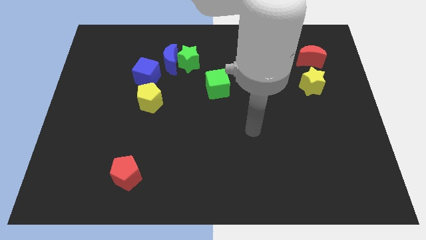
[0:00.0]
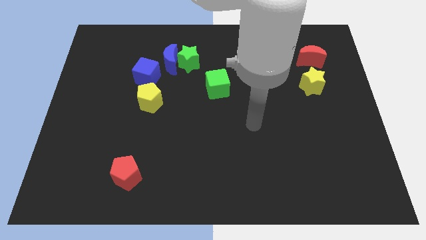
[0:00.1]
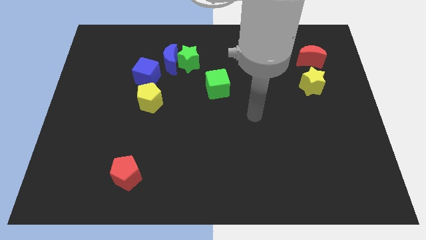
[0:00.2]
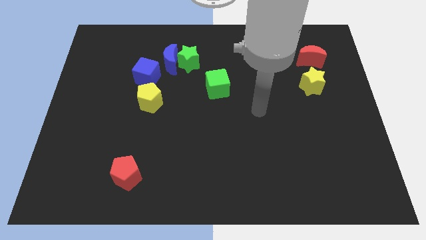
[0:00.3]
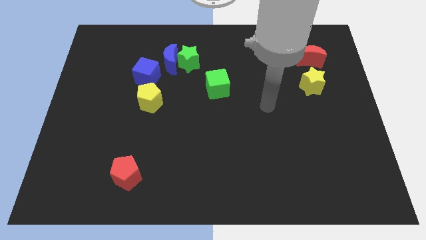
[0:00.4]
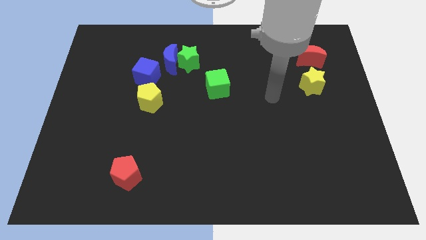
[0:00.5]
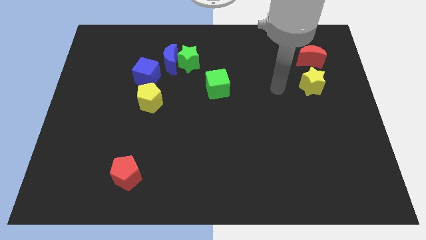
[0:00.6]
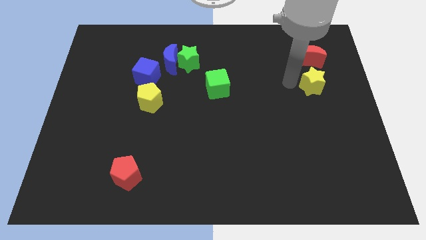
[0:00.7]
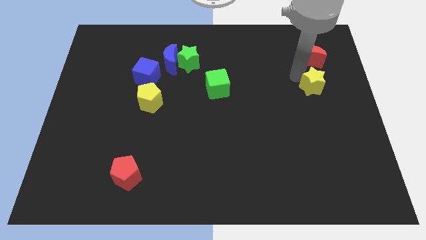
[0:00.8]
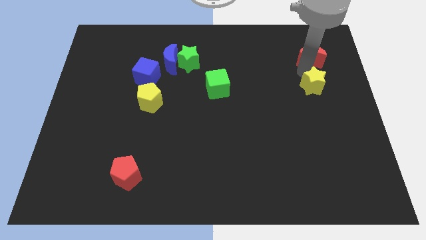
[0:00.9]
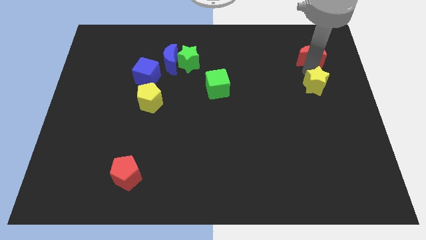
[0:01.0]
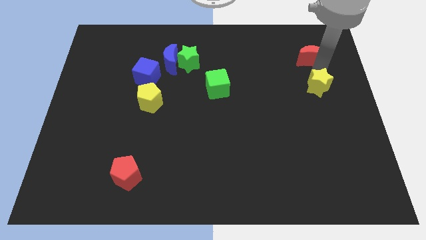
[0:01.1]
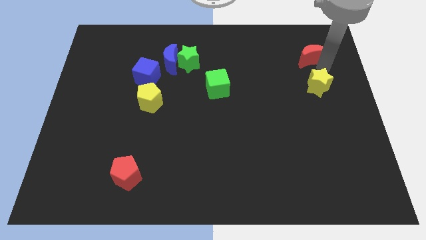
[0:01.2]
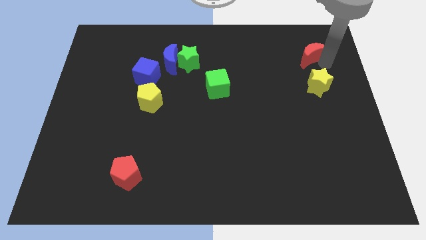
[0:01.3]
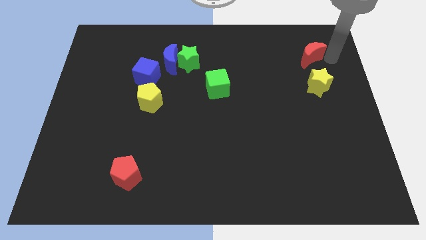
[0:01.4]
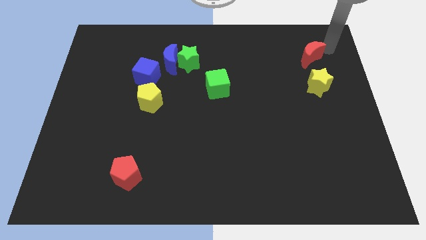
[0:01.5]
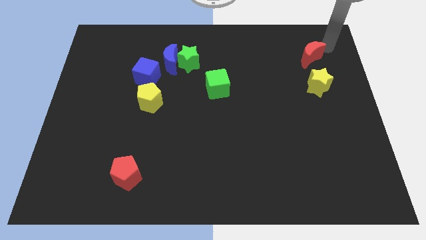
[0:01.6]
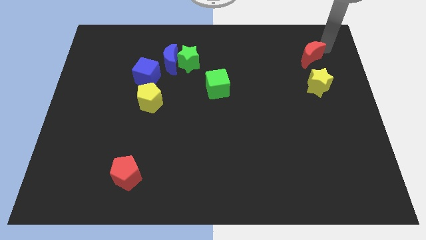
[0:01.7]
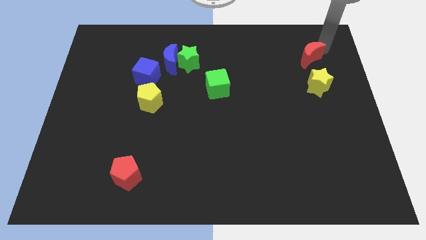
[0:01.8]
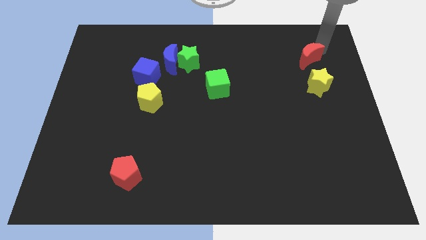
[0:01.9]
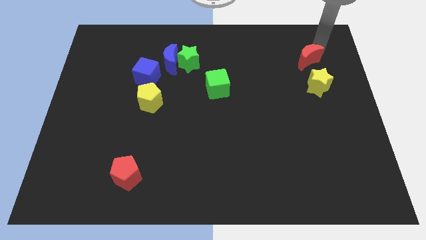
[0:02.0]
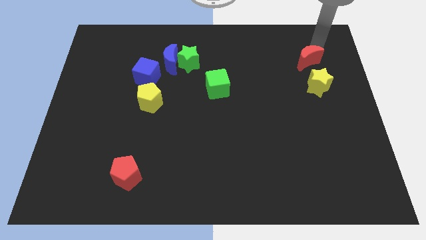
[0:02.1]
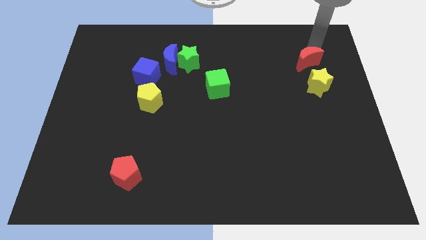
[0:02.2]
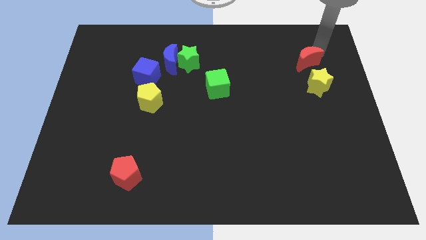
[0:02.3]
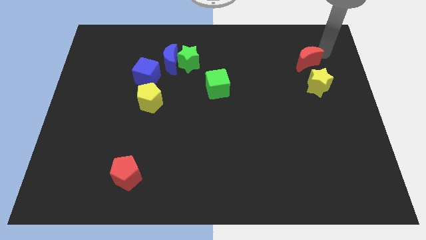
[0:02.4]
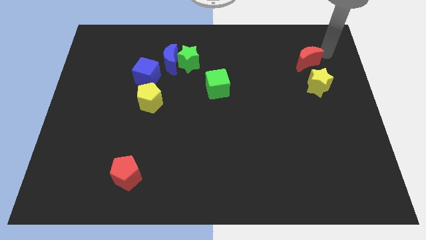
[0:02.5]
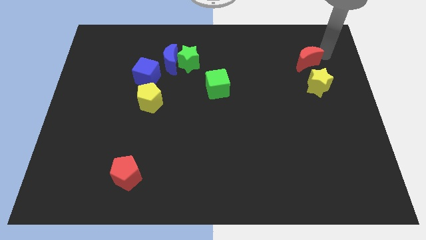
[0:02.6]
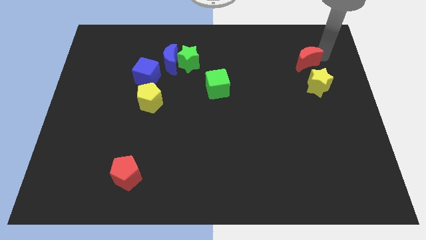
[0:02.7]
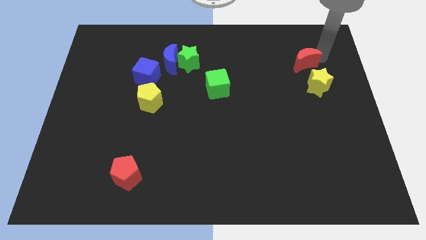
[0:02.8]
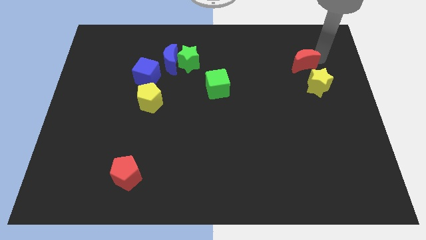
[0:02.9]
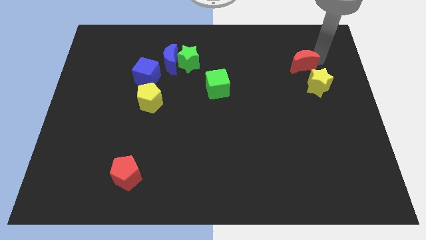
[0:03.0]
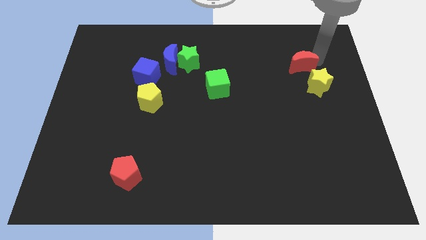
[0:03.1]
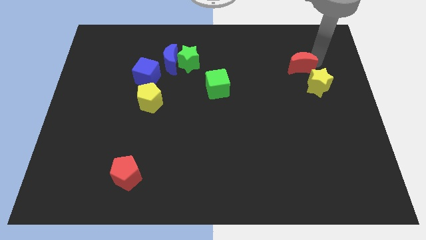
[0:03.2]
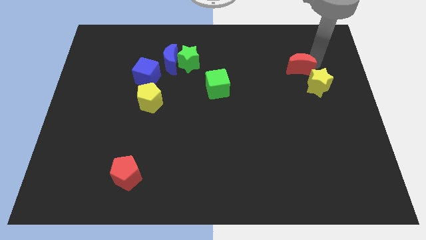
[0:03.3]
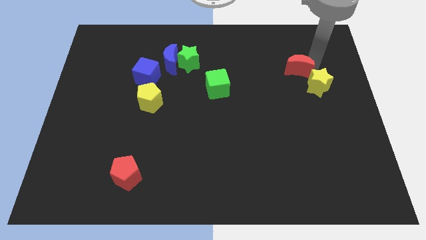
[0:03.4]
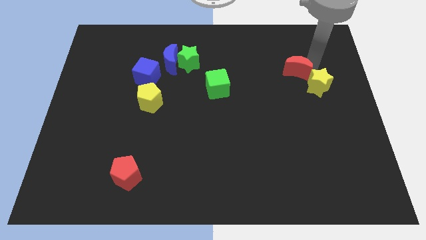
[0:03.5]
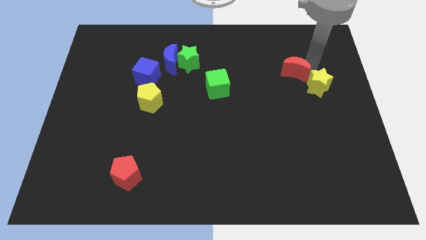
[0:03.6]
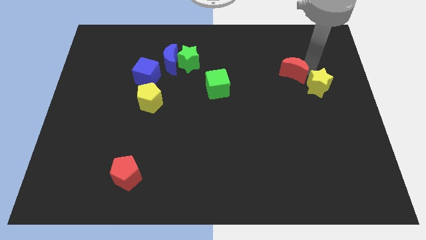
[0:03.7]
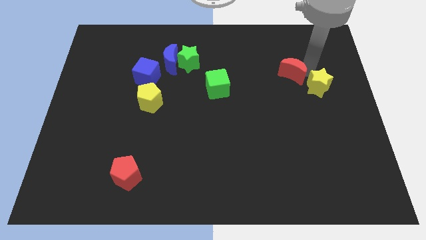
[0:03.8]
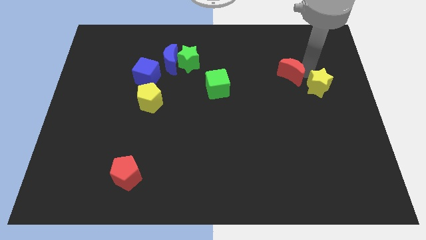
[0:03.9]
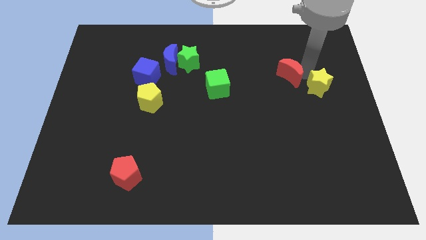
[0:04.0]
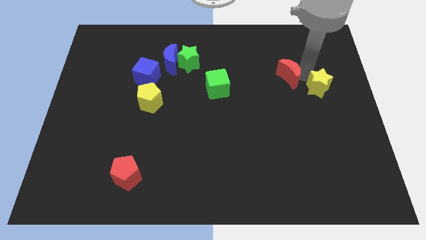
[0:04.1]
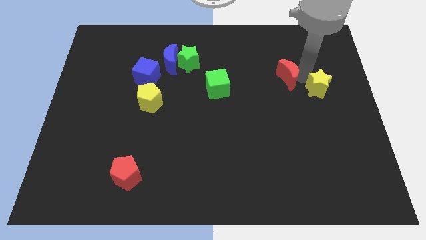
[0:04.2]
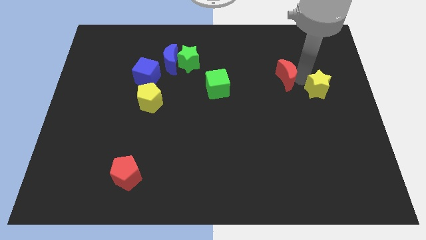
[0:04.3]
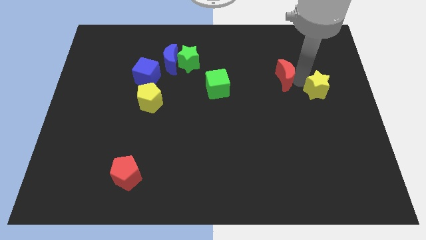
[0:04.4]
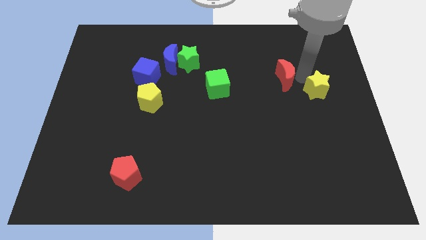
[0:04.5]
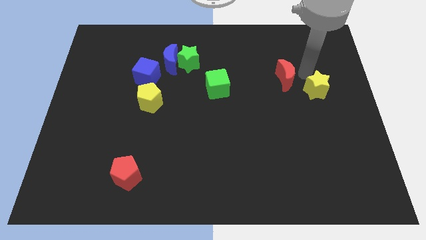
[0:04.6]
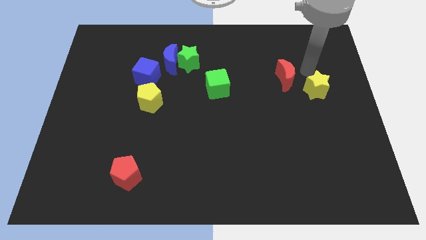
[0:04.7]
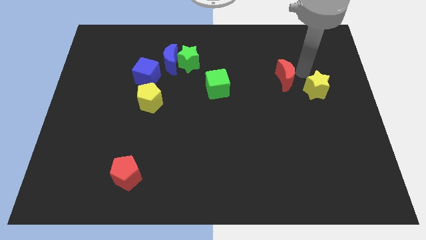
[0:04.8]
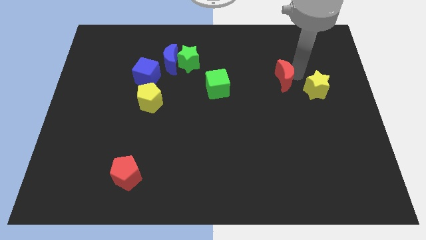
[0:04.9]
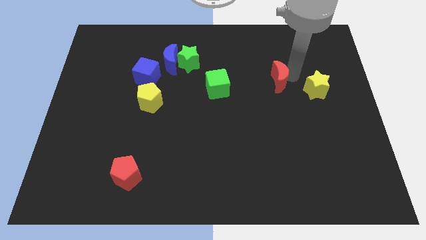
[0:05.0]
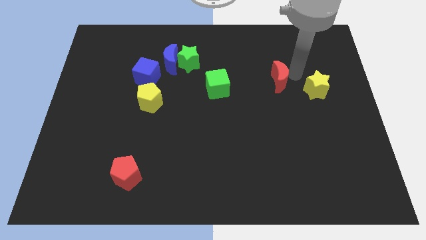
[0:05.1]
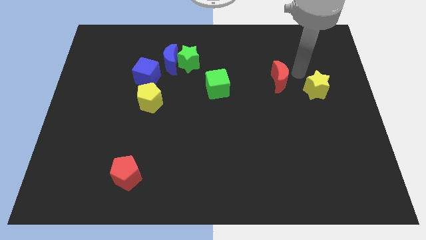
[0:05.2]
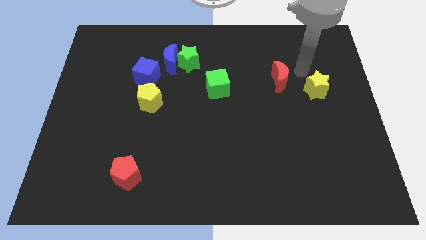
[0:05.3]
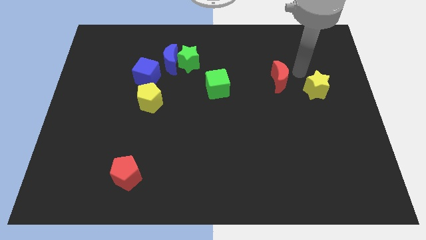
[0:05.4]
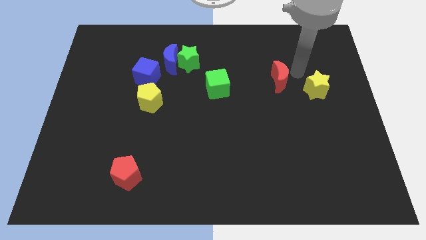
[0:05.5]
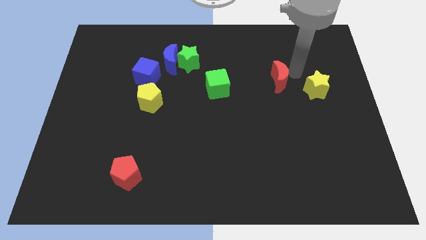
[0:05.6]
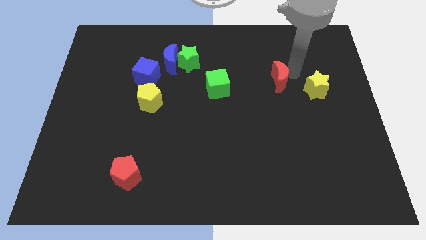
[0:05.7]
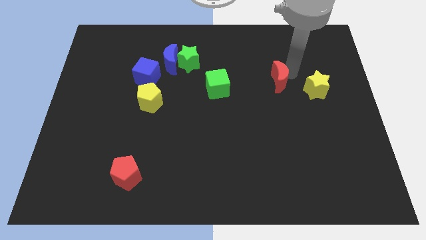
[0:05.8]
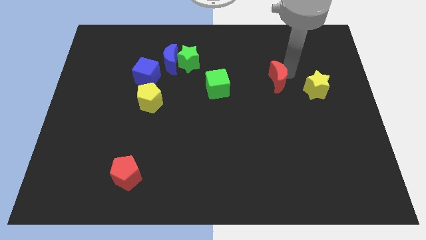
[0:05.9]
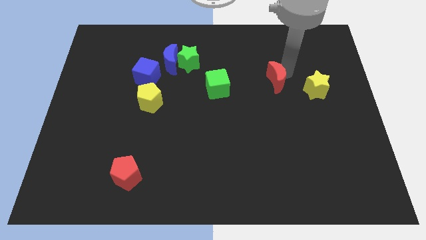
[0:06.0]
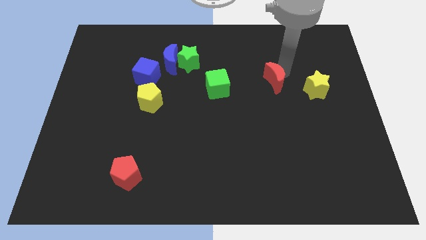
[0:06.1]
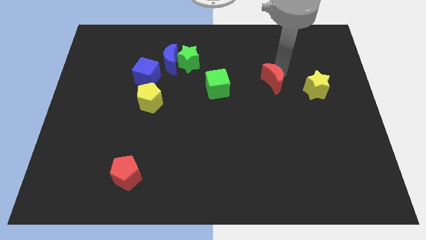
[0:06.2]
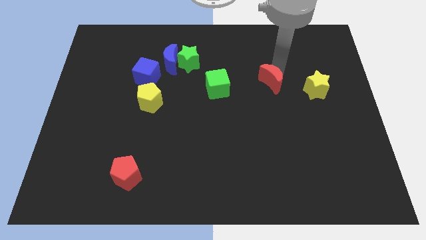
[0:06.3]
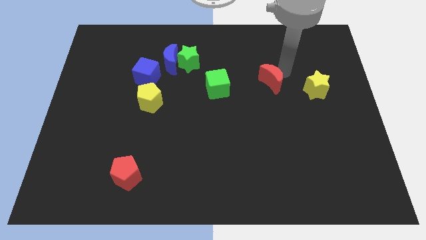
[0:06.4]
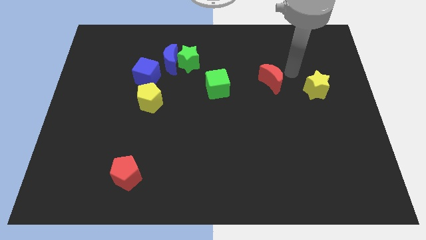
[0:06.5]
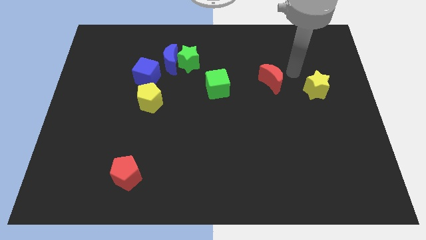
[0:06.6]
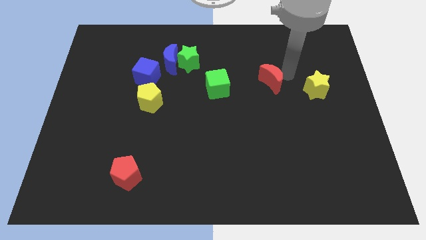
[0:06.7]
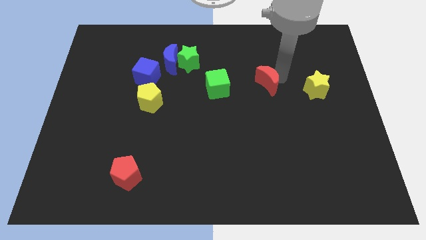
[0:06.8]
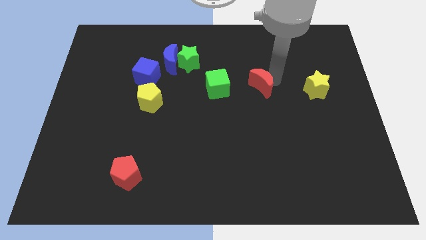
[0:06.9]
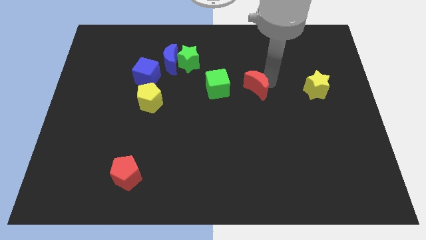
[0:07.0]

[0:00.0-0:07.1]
push the red moon to the middle
